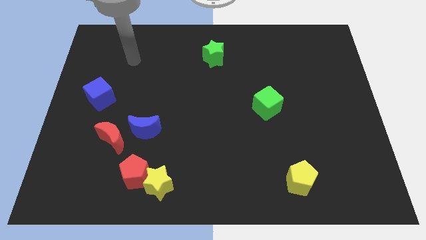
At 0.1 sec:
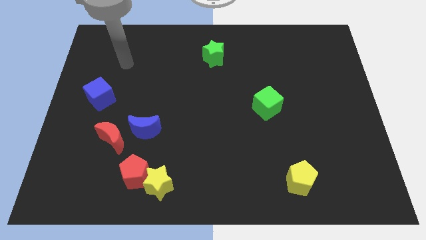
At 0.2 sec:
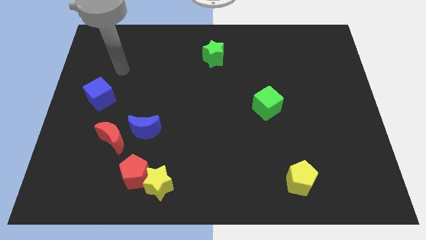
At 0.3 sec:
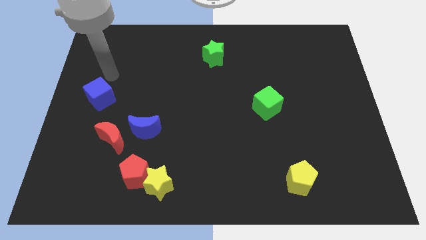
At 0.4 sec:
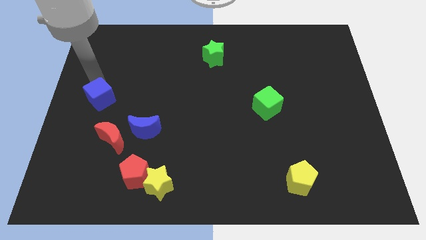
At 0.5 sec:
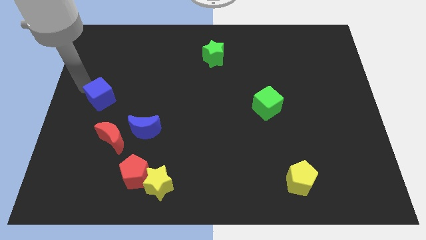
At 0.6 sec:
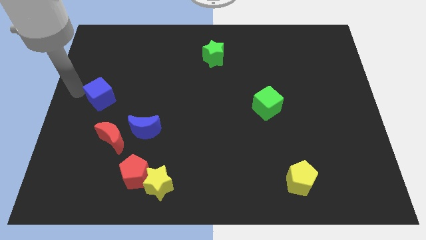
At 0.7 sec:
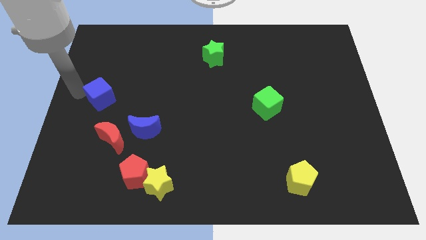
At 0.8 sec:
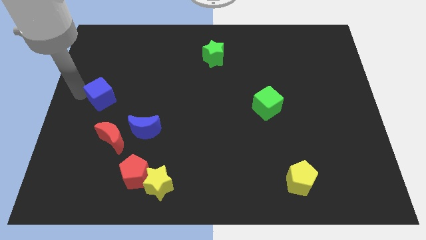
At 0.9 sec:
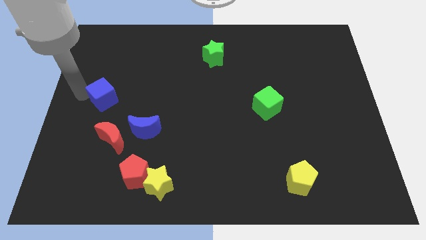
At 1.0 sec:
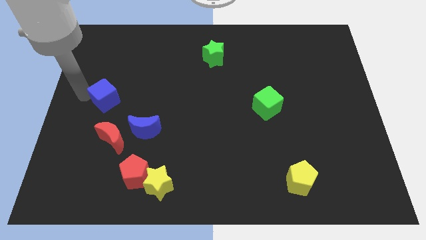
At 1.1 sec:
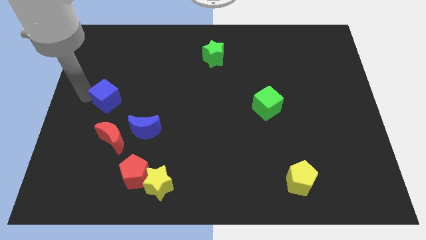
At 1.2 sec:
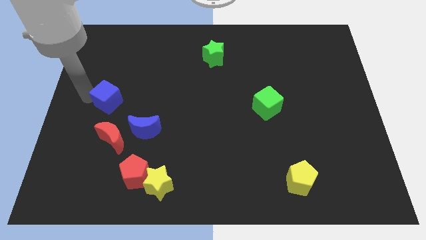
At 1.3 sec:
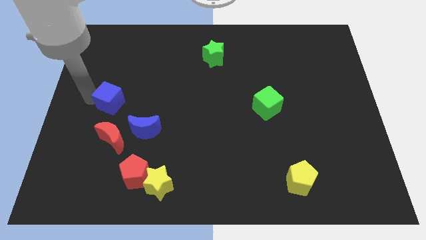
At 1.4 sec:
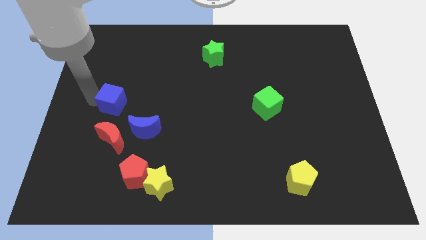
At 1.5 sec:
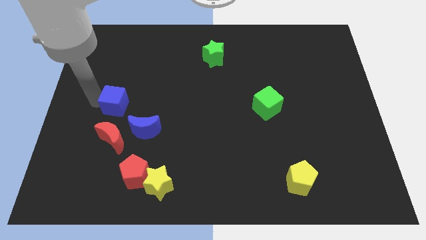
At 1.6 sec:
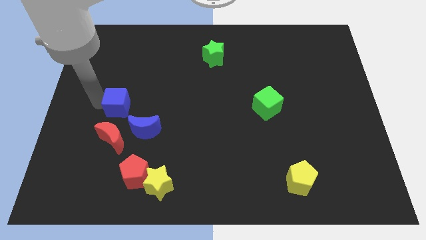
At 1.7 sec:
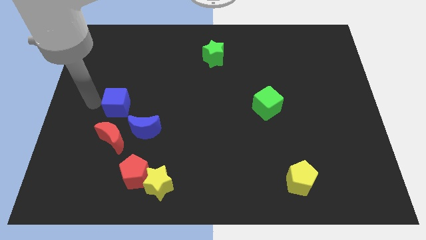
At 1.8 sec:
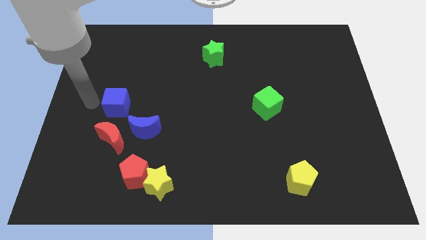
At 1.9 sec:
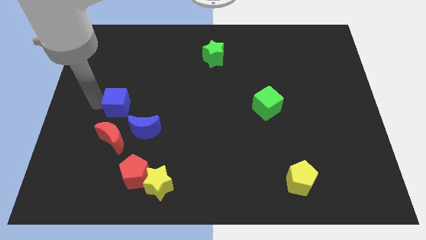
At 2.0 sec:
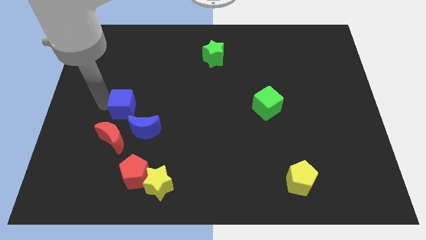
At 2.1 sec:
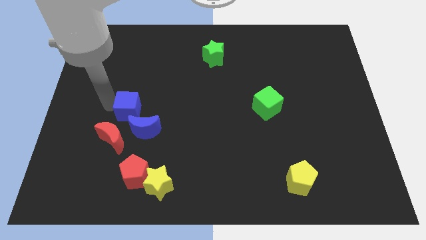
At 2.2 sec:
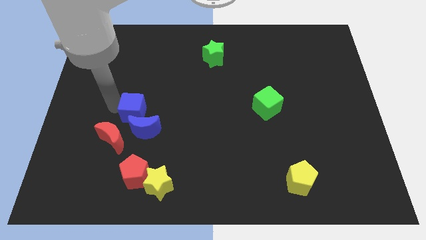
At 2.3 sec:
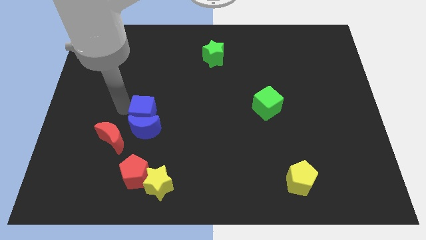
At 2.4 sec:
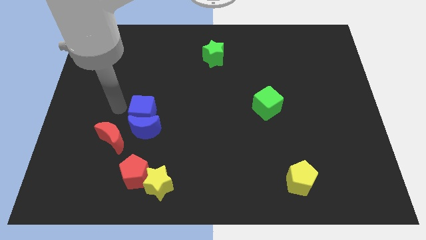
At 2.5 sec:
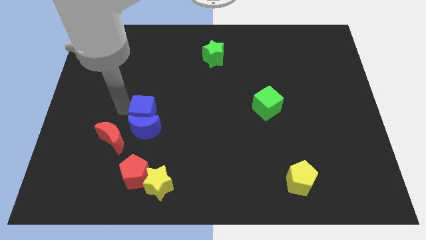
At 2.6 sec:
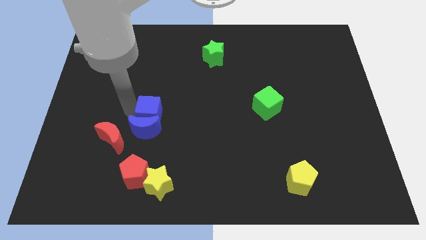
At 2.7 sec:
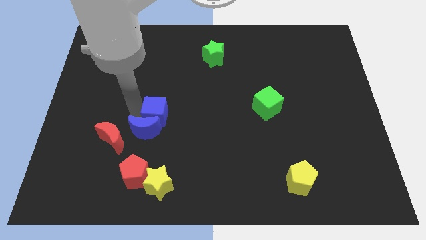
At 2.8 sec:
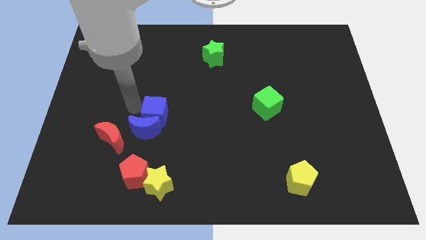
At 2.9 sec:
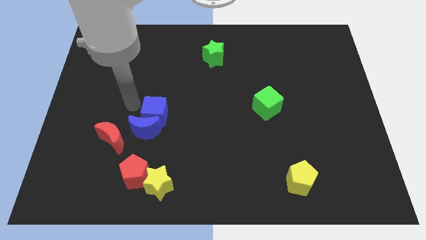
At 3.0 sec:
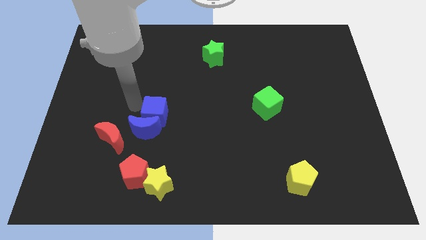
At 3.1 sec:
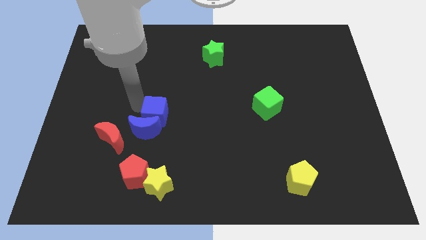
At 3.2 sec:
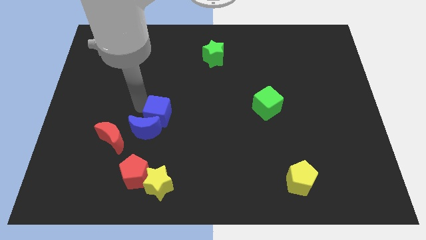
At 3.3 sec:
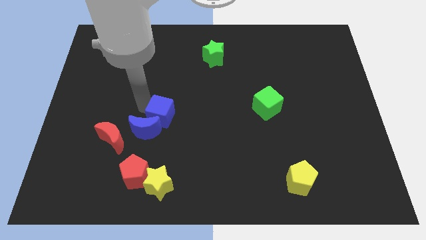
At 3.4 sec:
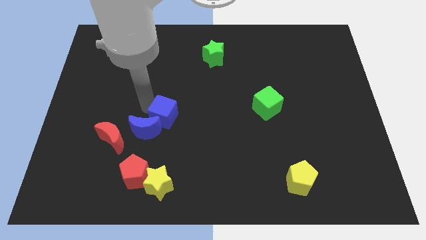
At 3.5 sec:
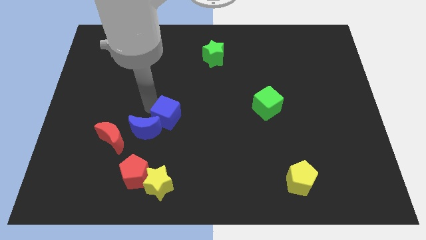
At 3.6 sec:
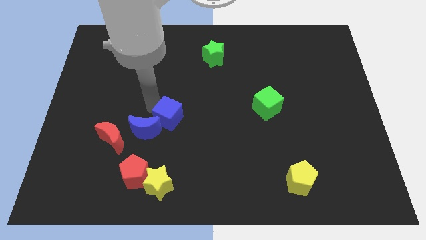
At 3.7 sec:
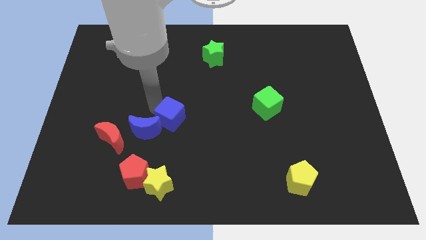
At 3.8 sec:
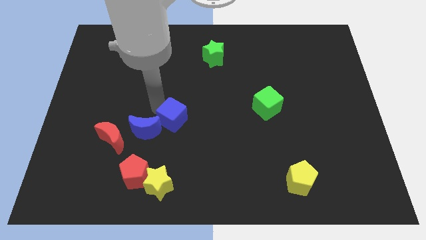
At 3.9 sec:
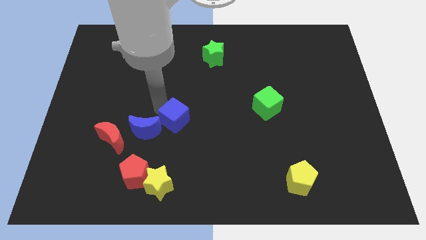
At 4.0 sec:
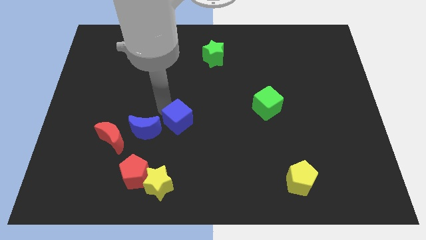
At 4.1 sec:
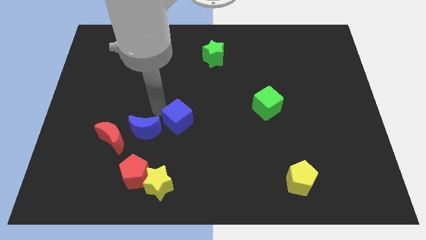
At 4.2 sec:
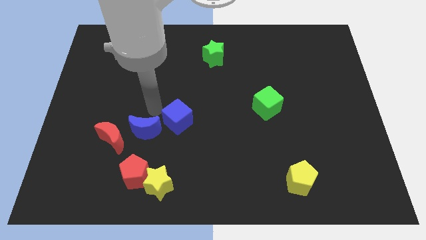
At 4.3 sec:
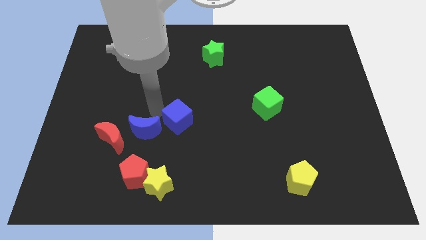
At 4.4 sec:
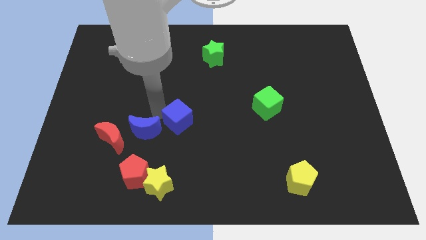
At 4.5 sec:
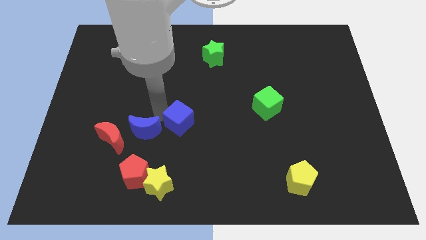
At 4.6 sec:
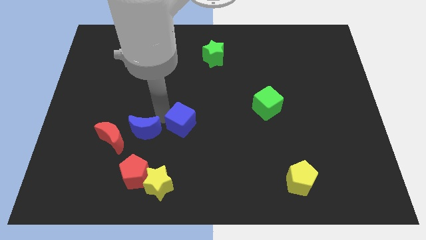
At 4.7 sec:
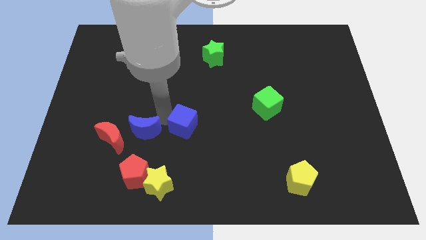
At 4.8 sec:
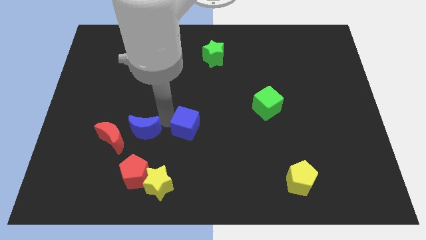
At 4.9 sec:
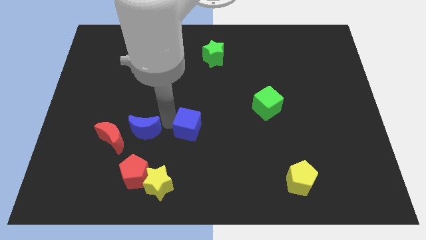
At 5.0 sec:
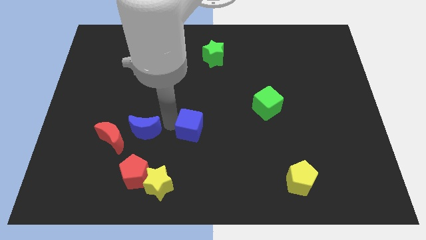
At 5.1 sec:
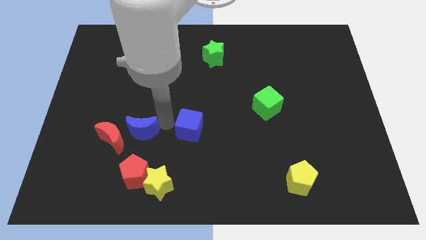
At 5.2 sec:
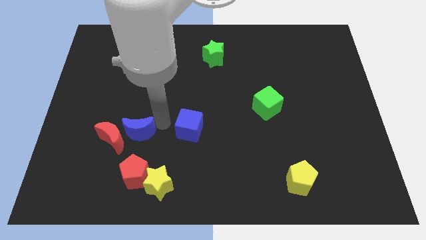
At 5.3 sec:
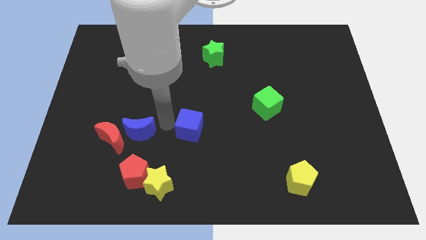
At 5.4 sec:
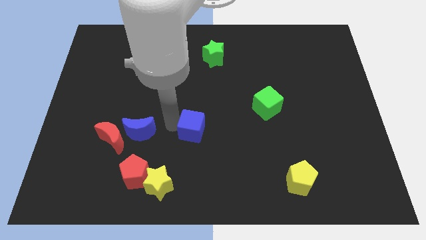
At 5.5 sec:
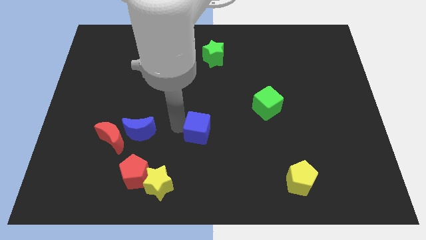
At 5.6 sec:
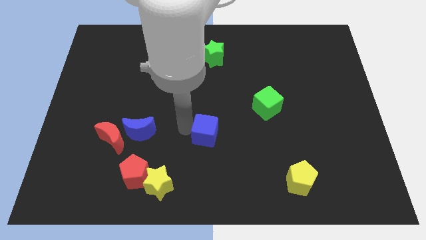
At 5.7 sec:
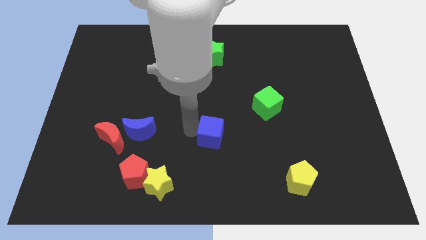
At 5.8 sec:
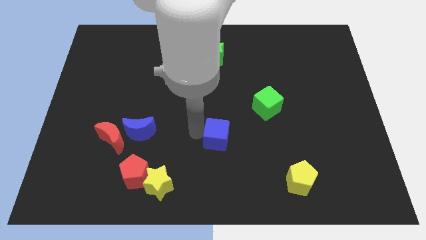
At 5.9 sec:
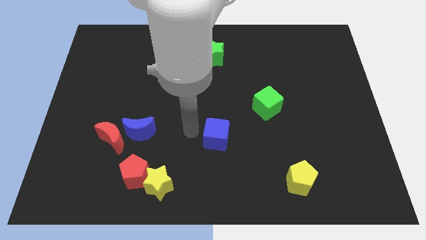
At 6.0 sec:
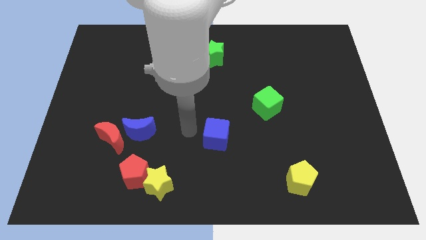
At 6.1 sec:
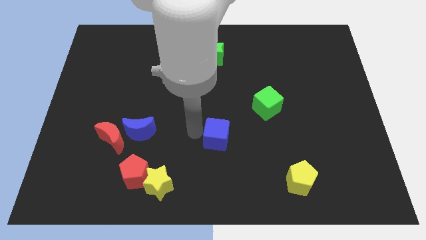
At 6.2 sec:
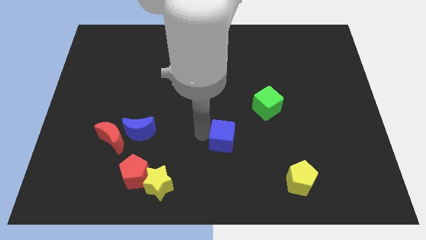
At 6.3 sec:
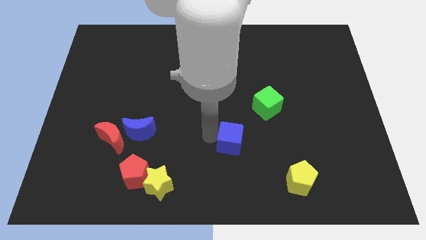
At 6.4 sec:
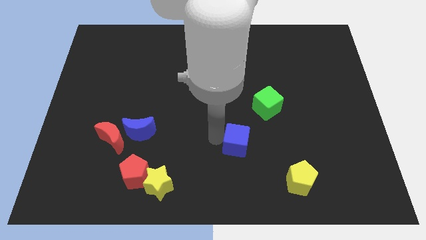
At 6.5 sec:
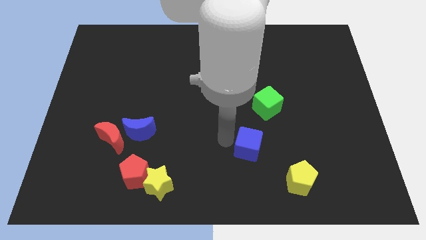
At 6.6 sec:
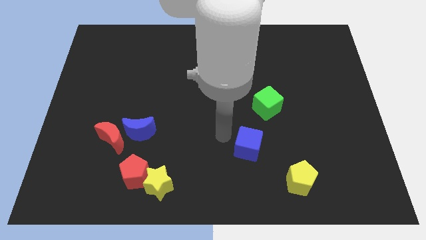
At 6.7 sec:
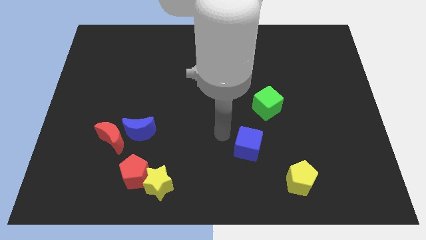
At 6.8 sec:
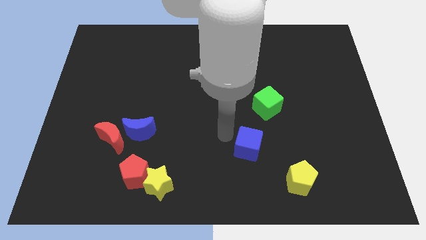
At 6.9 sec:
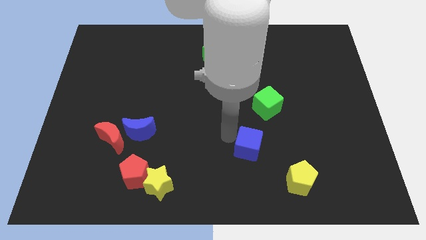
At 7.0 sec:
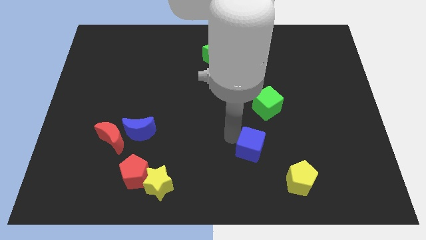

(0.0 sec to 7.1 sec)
push the blue cube diagonally up and to the left of the yellow pentagon
